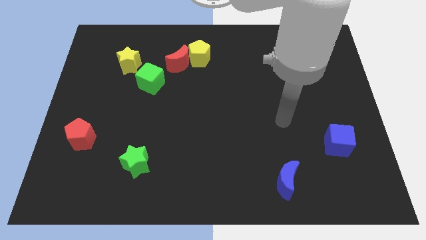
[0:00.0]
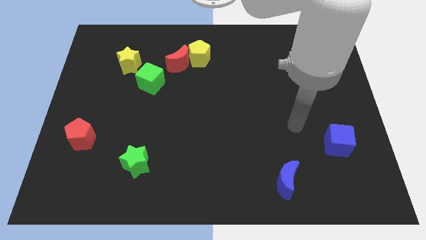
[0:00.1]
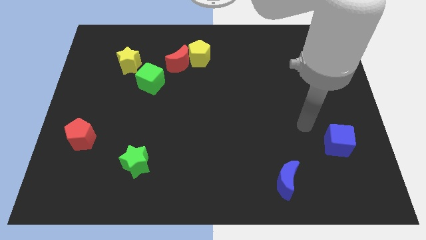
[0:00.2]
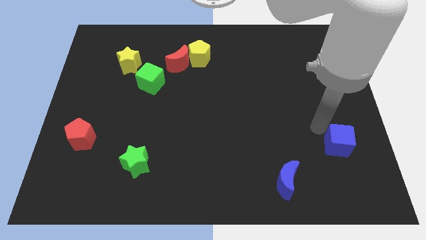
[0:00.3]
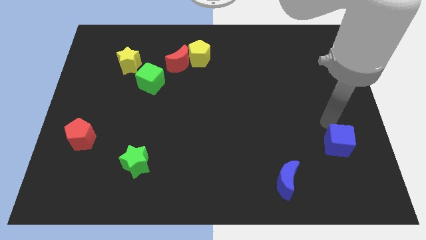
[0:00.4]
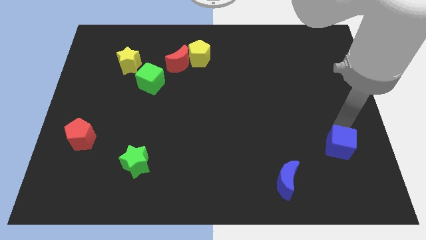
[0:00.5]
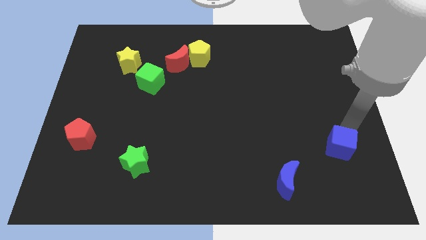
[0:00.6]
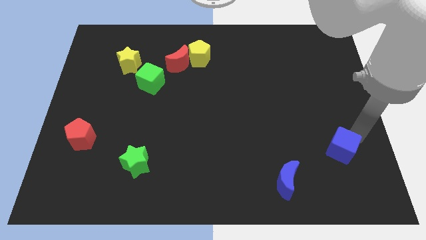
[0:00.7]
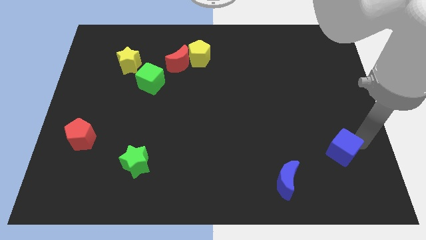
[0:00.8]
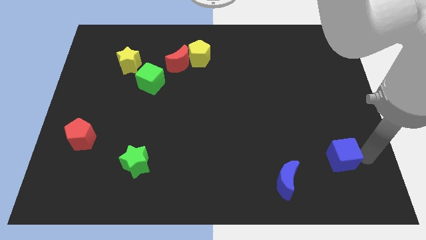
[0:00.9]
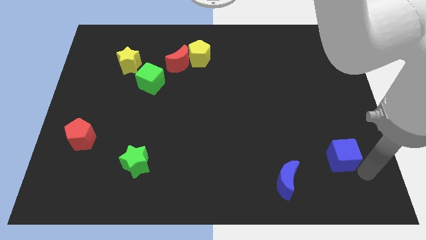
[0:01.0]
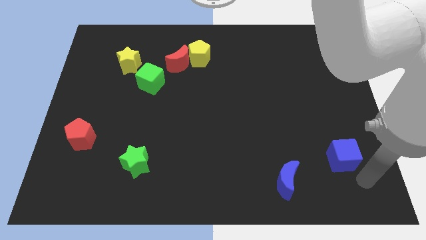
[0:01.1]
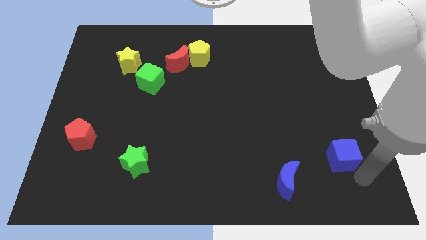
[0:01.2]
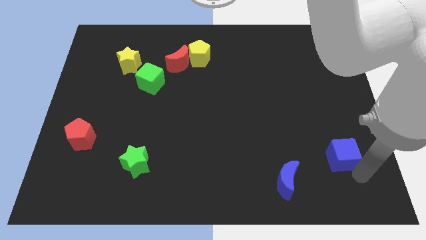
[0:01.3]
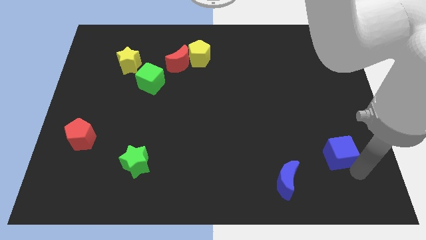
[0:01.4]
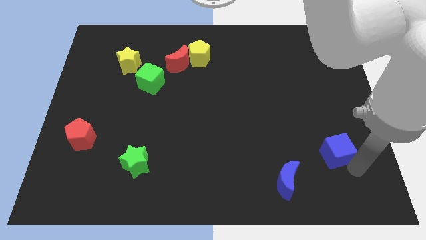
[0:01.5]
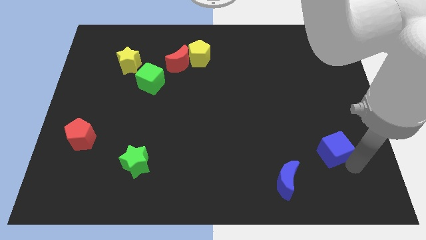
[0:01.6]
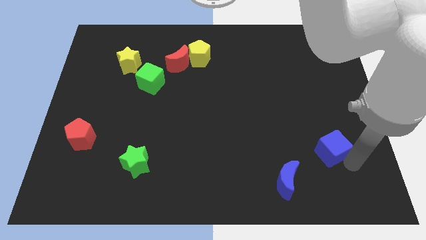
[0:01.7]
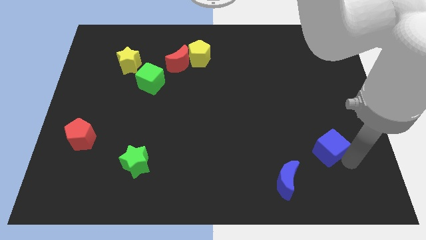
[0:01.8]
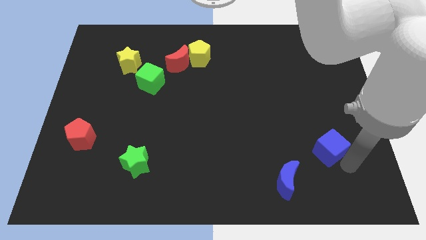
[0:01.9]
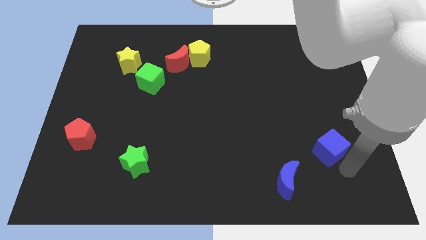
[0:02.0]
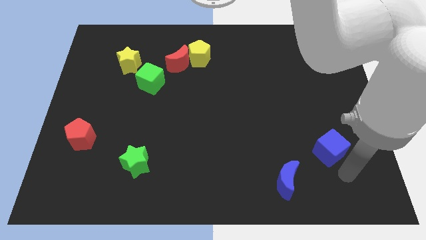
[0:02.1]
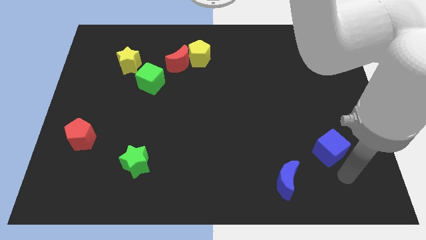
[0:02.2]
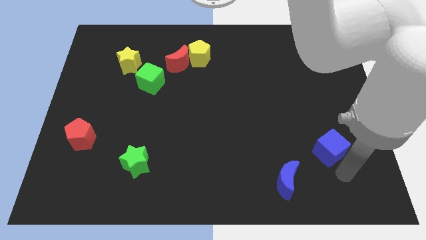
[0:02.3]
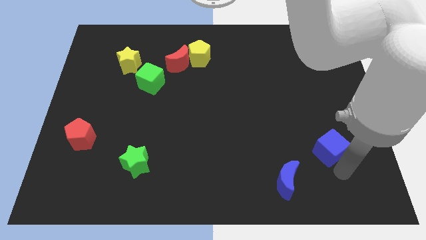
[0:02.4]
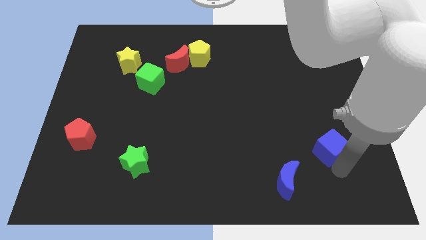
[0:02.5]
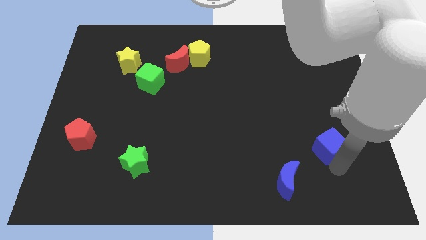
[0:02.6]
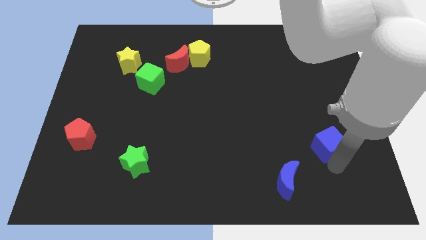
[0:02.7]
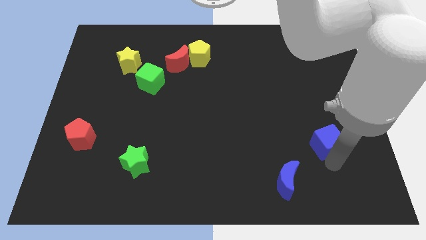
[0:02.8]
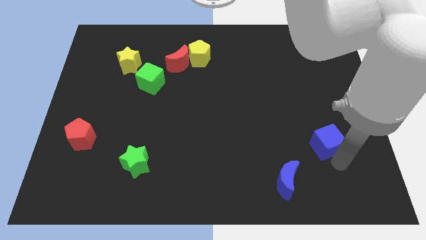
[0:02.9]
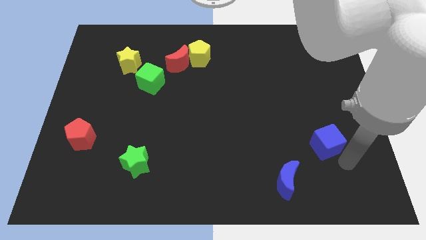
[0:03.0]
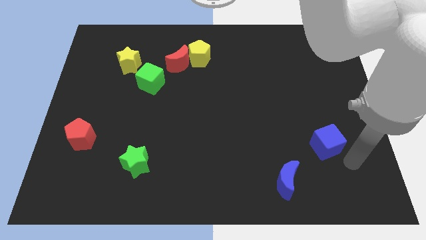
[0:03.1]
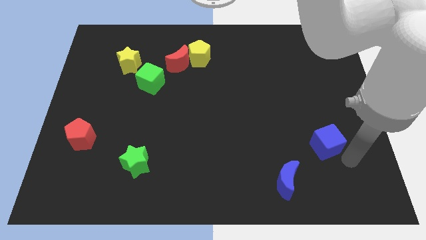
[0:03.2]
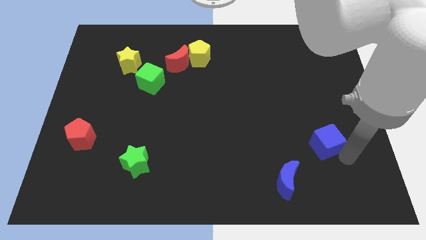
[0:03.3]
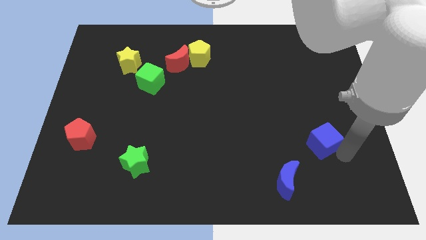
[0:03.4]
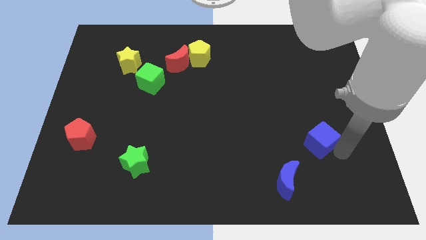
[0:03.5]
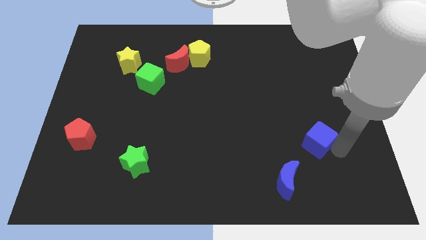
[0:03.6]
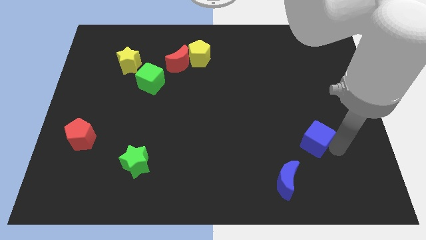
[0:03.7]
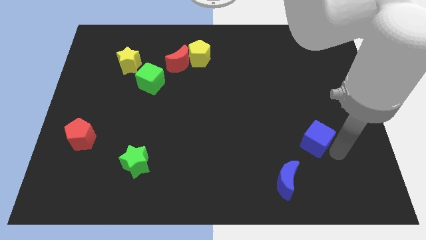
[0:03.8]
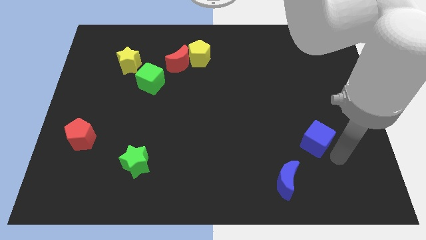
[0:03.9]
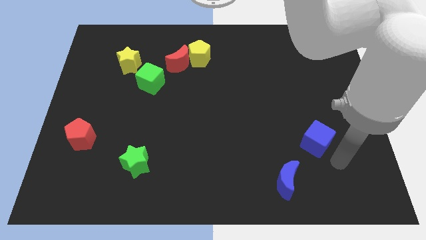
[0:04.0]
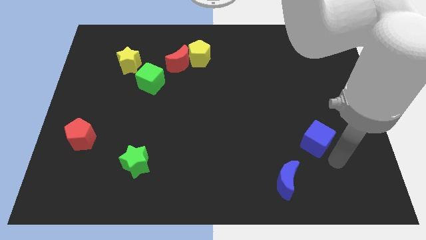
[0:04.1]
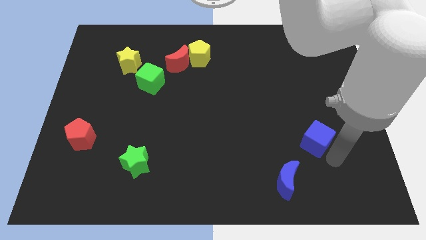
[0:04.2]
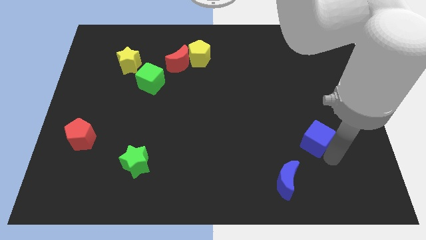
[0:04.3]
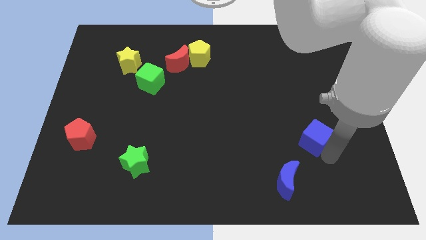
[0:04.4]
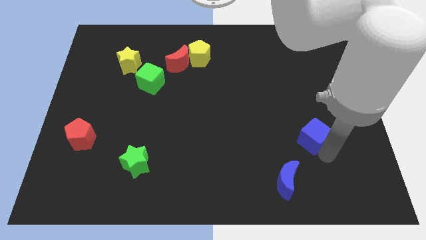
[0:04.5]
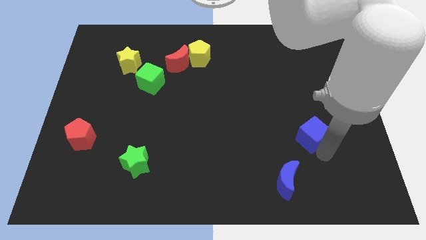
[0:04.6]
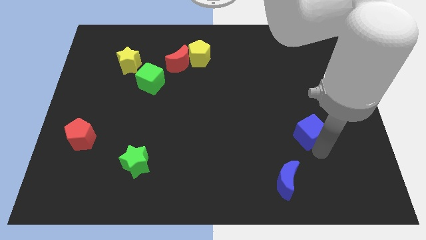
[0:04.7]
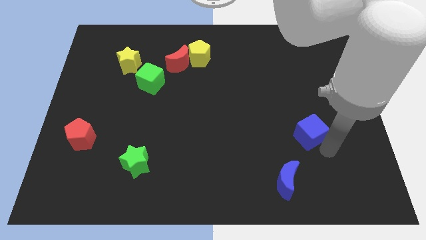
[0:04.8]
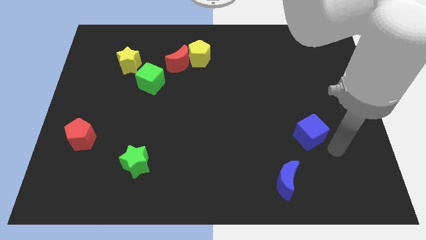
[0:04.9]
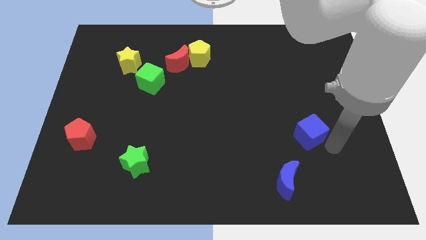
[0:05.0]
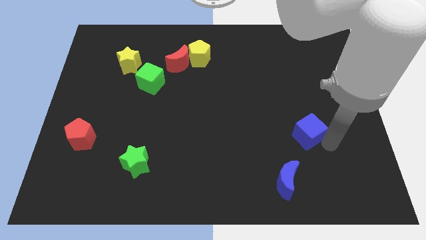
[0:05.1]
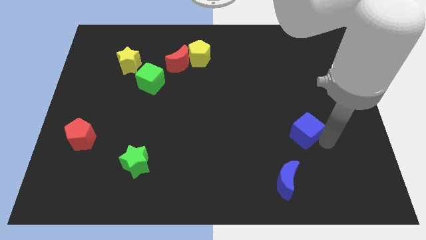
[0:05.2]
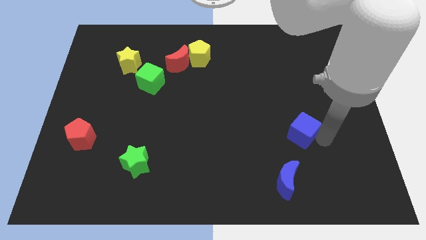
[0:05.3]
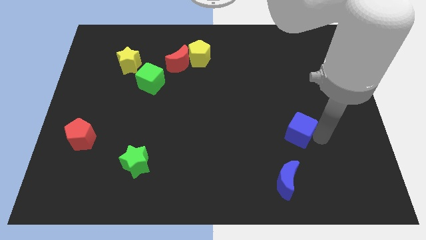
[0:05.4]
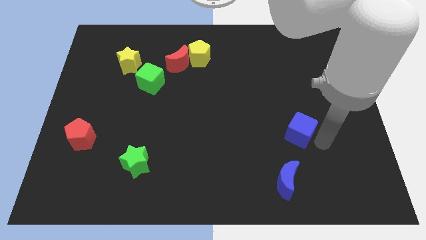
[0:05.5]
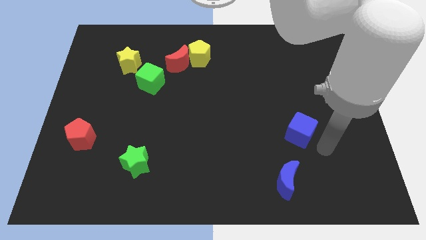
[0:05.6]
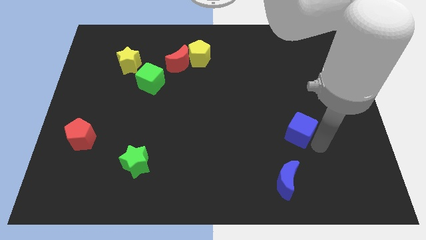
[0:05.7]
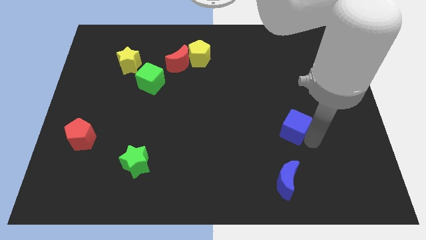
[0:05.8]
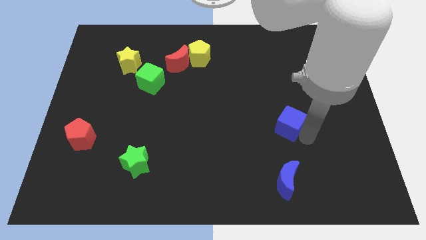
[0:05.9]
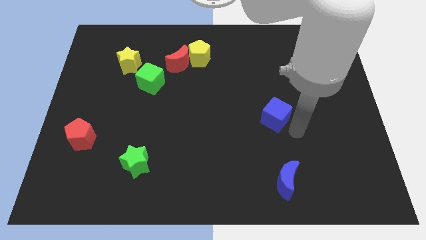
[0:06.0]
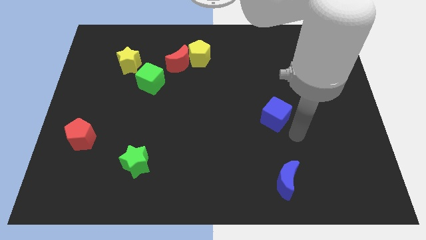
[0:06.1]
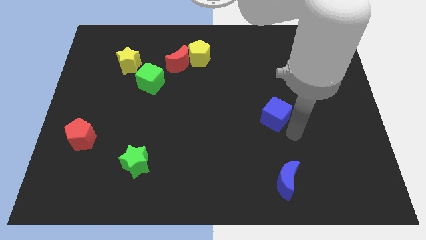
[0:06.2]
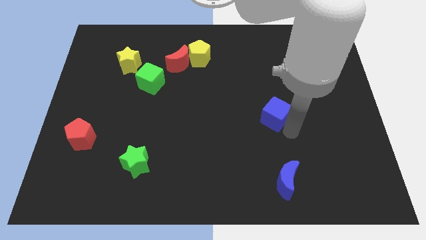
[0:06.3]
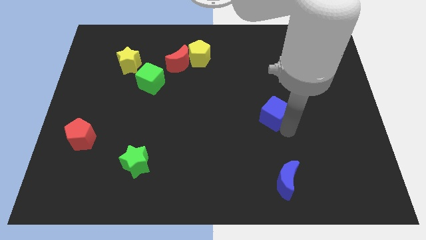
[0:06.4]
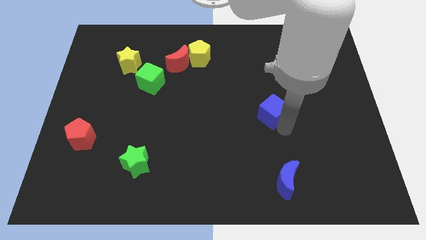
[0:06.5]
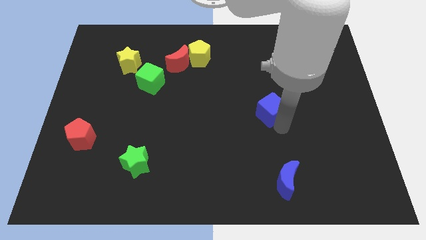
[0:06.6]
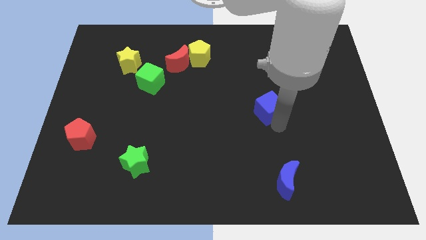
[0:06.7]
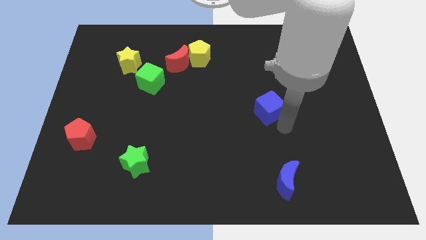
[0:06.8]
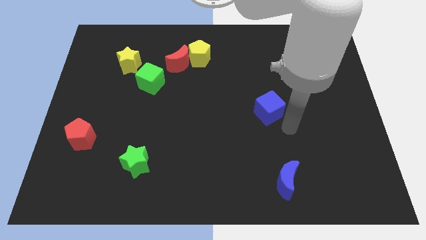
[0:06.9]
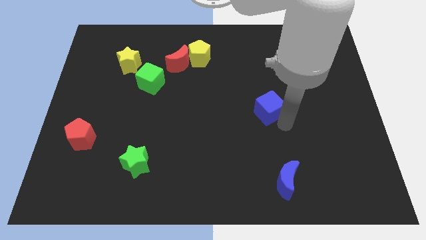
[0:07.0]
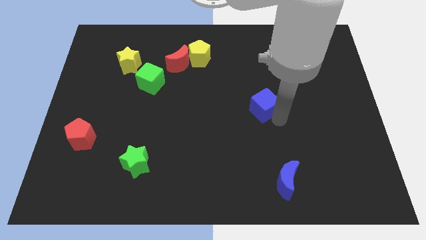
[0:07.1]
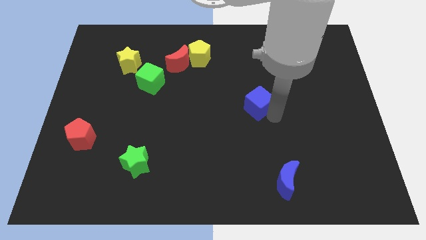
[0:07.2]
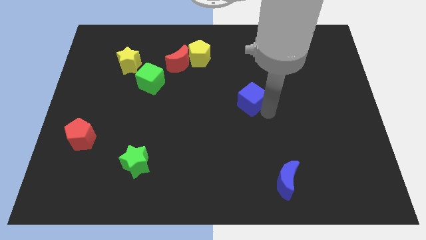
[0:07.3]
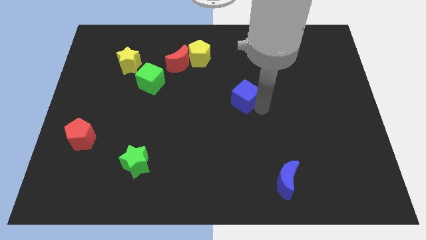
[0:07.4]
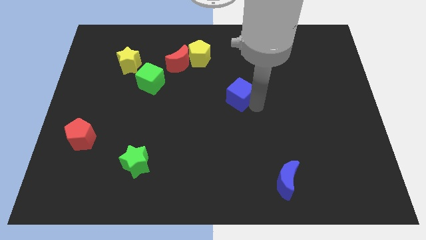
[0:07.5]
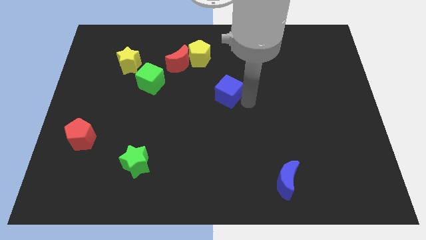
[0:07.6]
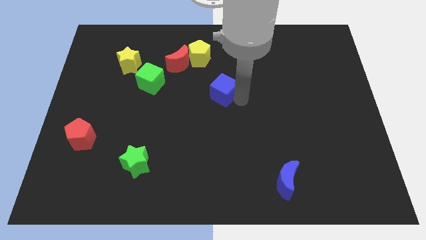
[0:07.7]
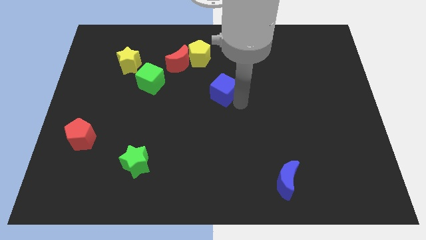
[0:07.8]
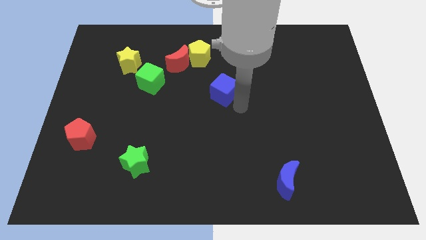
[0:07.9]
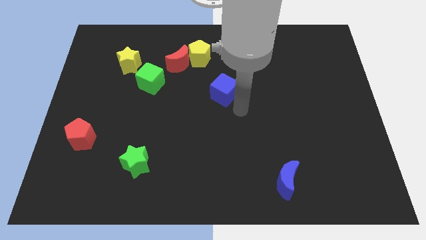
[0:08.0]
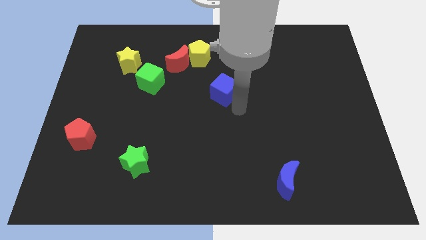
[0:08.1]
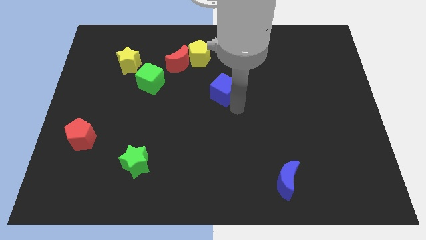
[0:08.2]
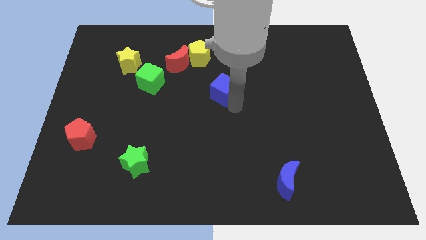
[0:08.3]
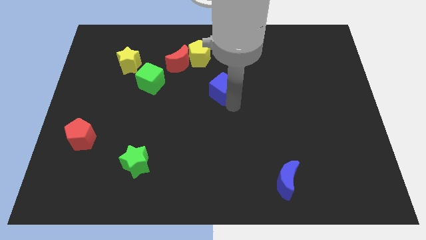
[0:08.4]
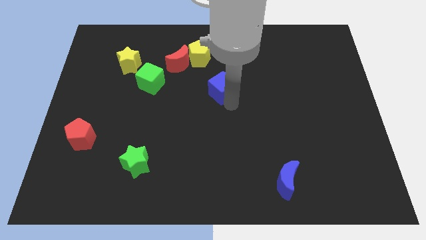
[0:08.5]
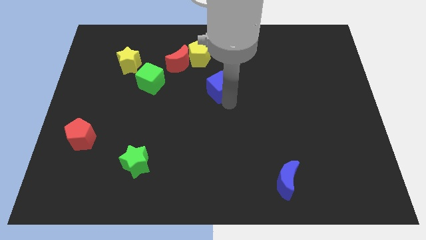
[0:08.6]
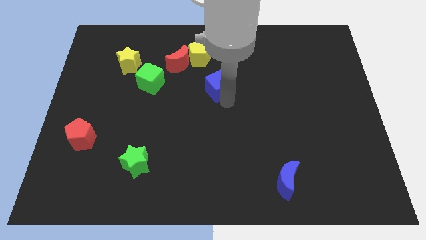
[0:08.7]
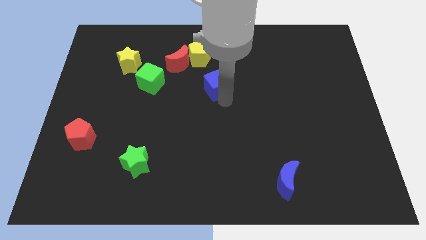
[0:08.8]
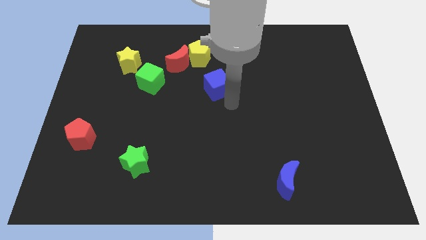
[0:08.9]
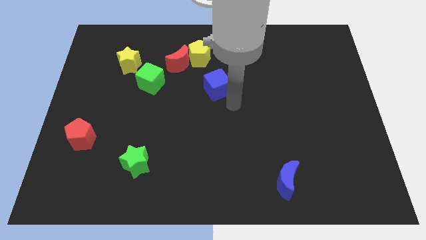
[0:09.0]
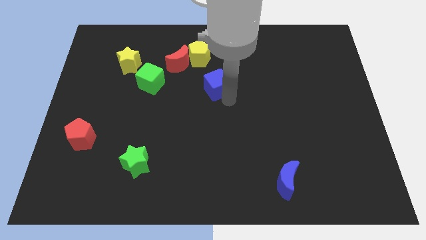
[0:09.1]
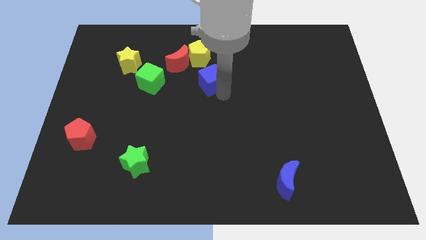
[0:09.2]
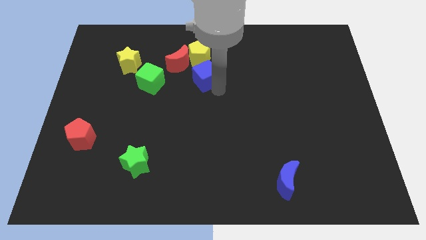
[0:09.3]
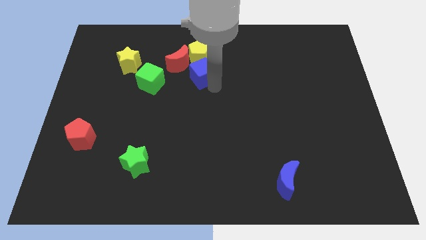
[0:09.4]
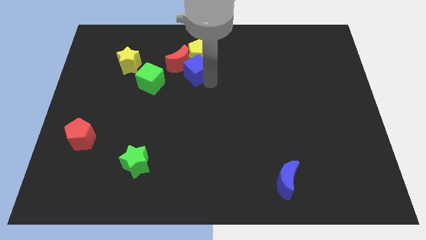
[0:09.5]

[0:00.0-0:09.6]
put the blue cube close to the red moon
